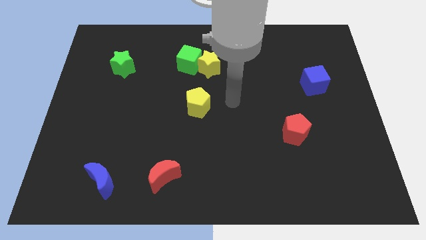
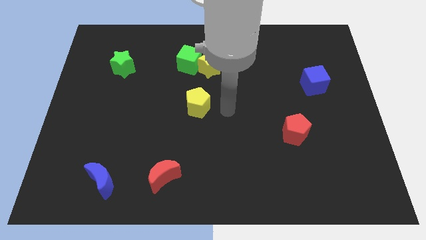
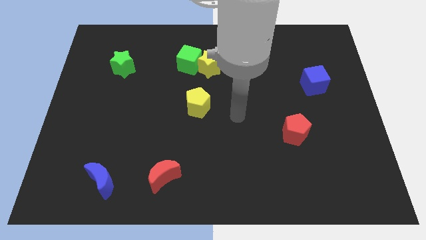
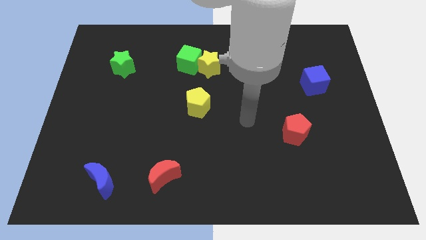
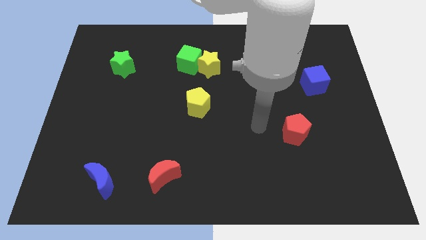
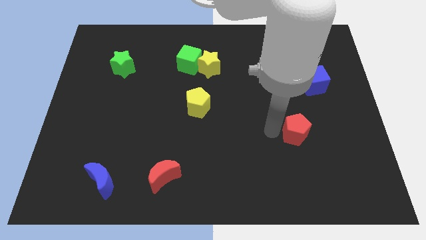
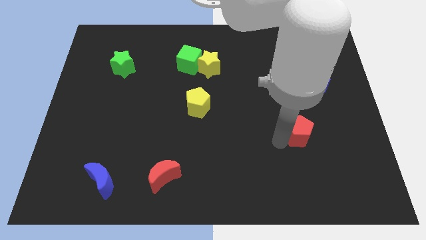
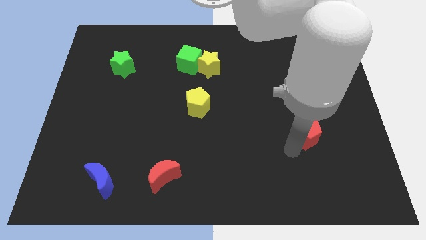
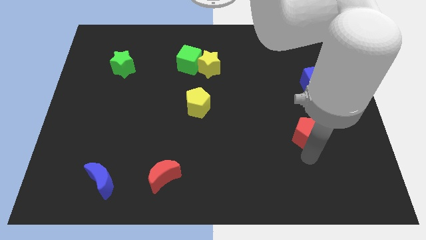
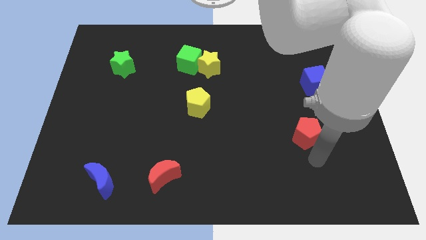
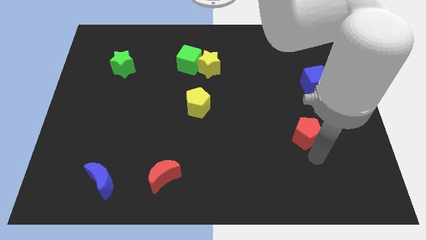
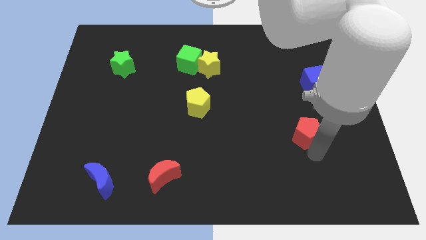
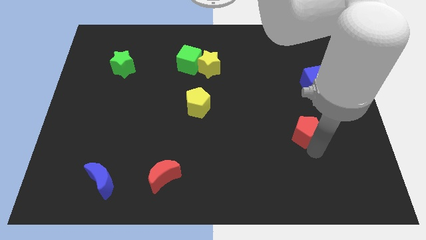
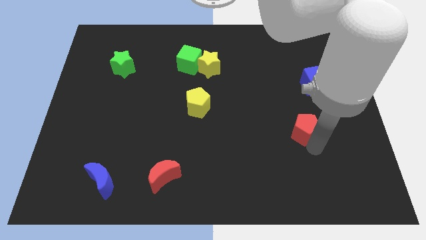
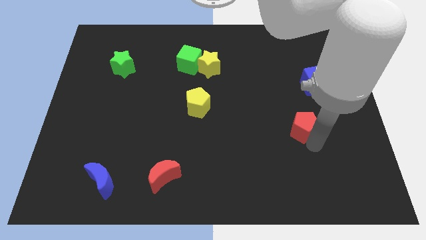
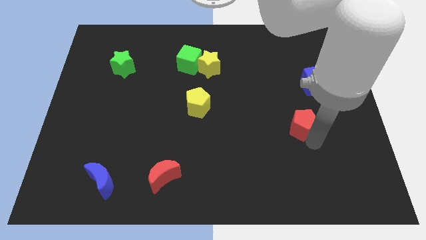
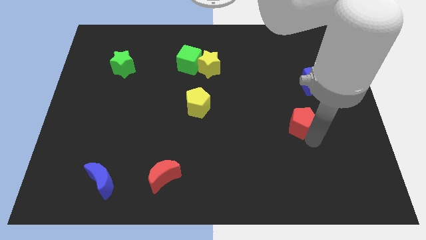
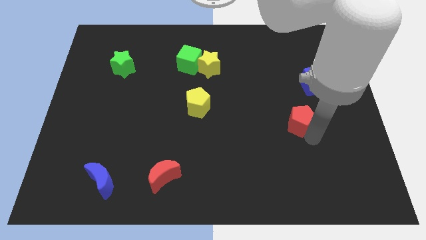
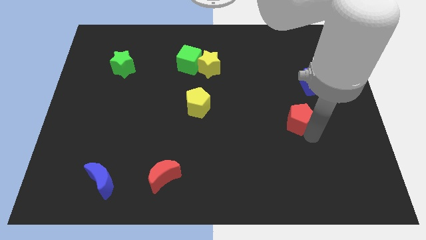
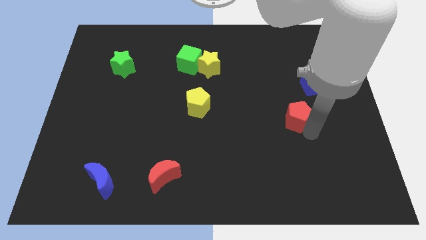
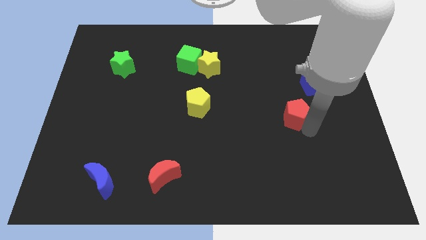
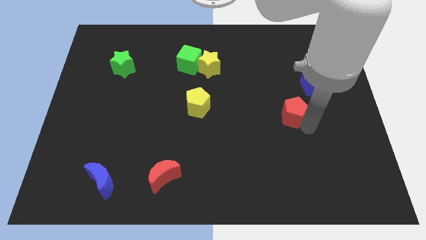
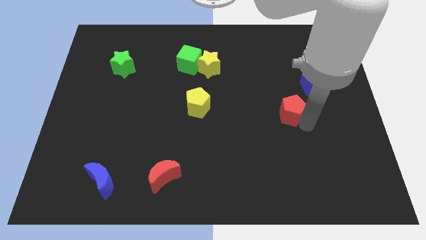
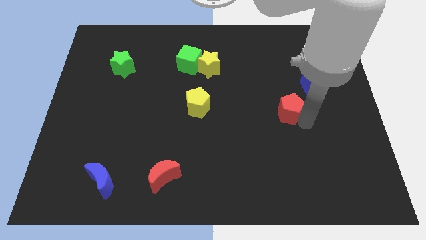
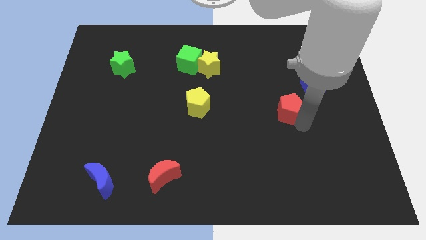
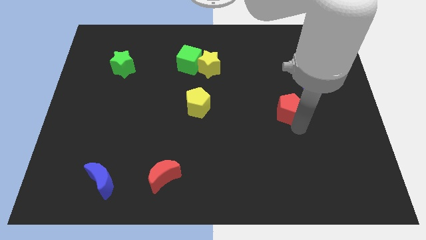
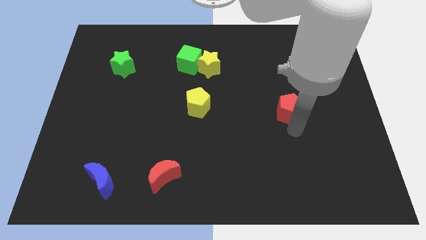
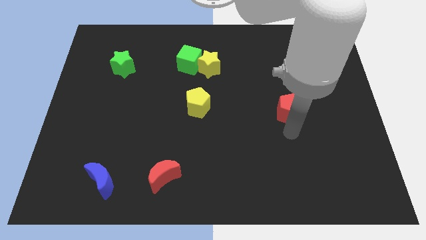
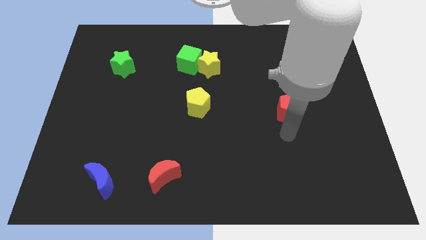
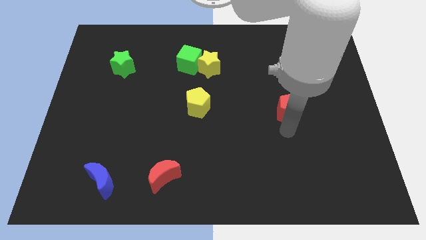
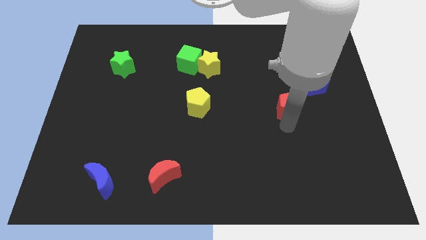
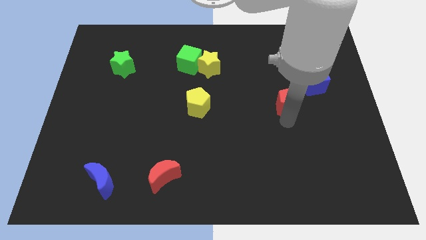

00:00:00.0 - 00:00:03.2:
push the red pentagon a little bit up

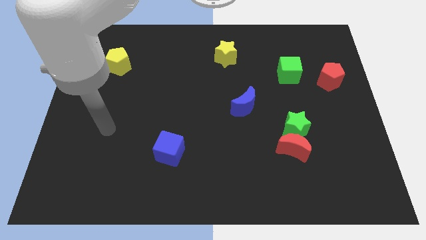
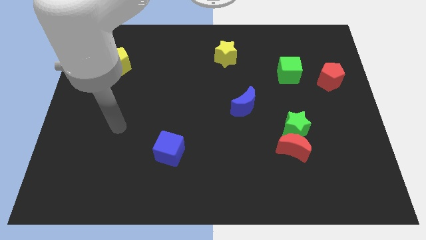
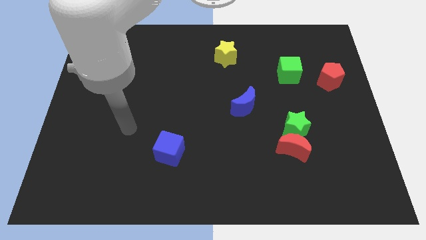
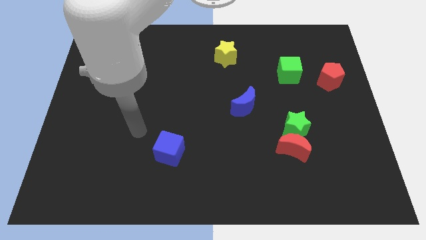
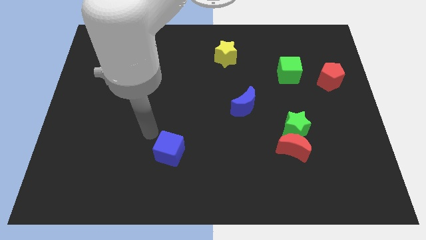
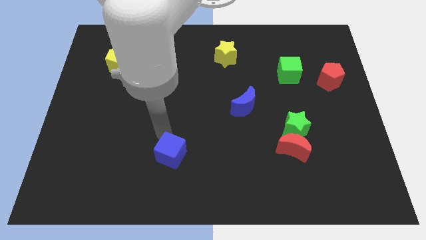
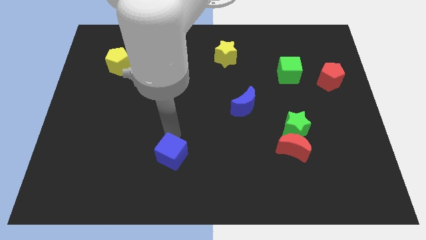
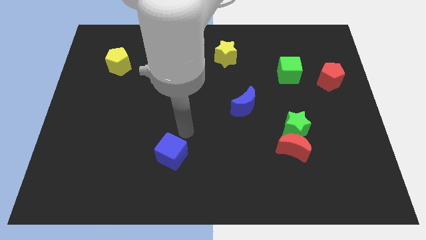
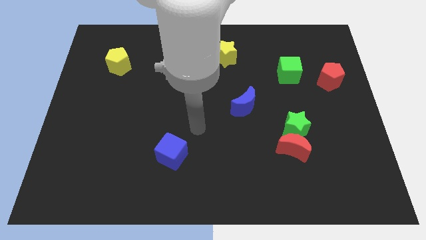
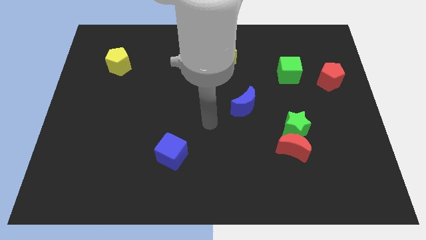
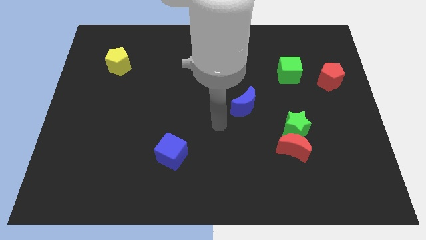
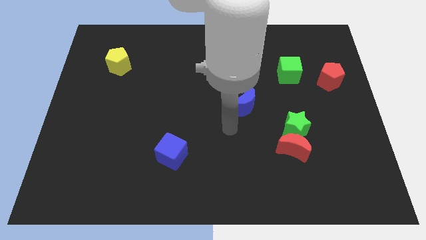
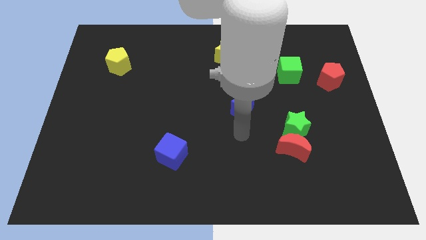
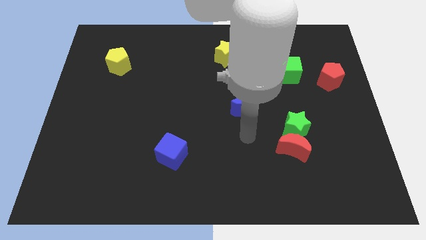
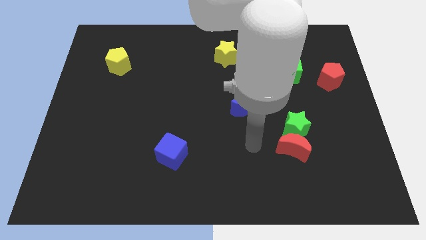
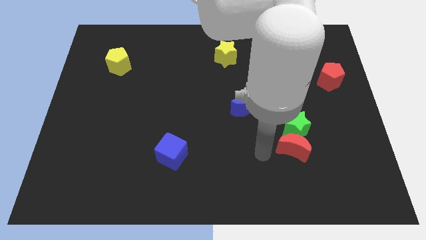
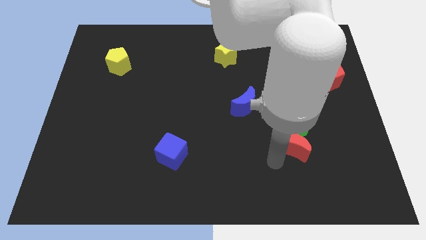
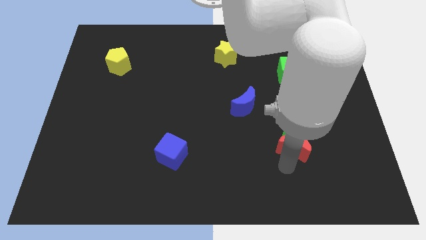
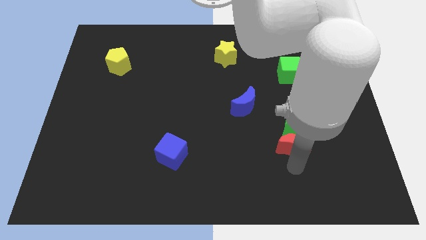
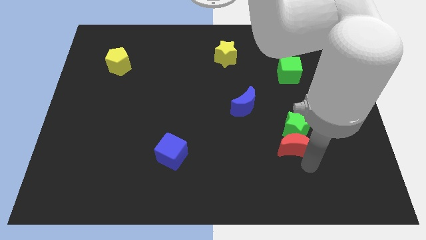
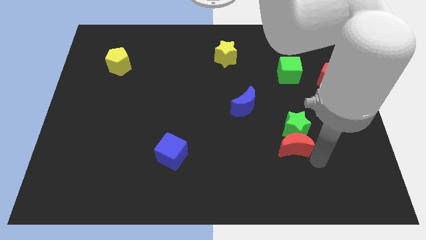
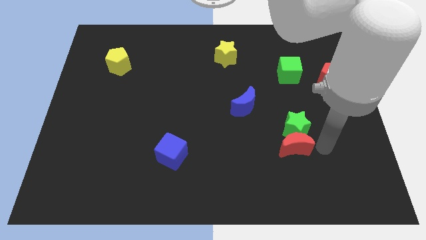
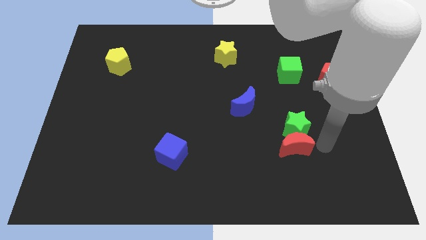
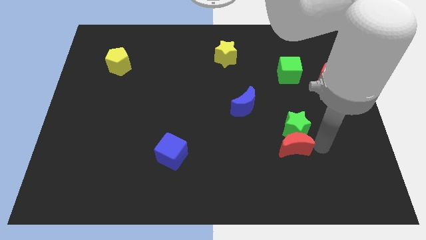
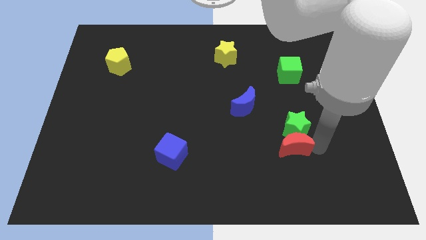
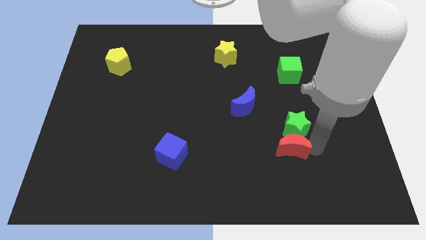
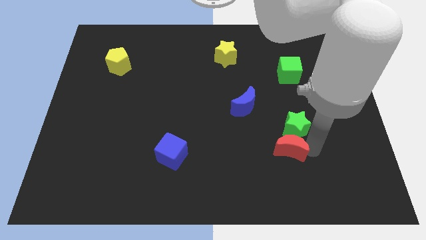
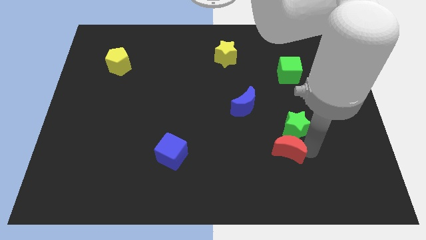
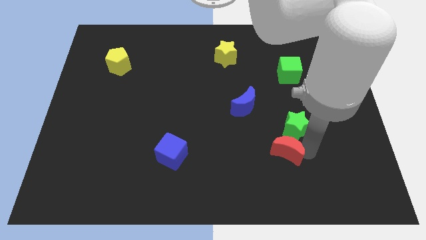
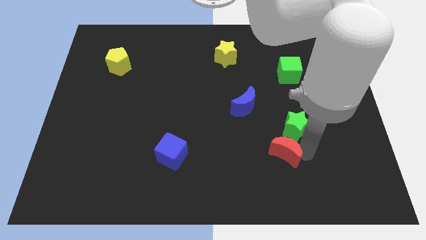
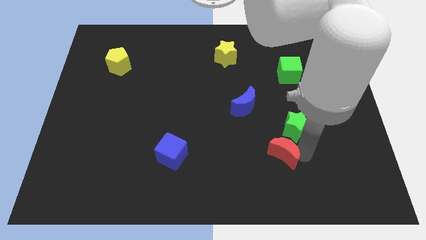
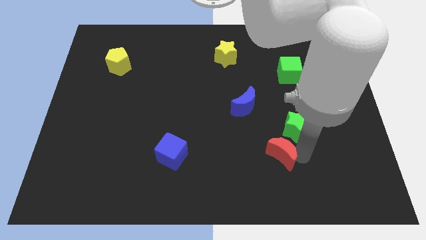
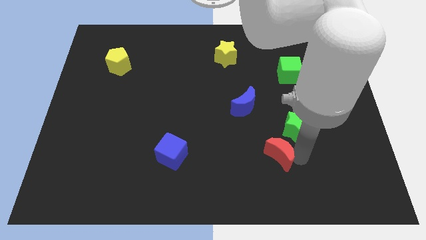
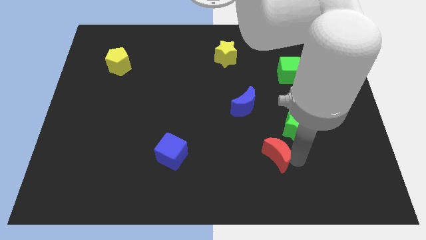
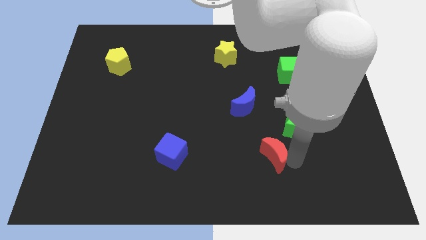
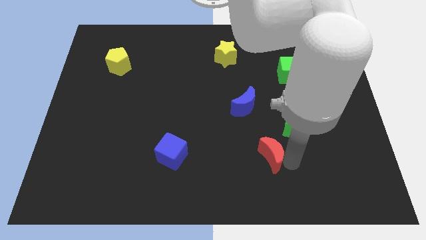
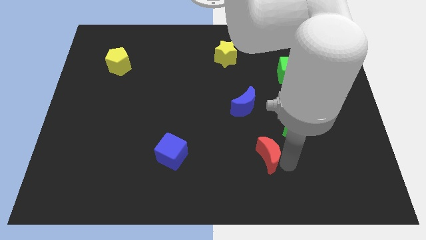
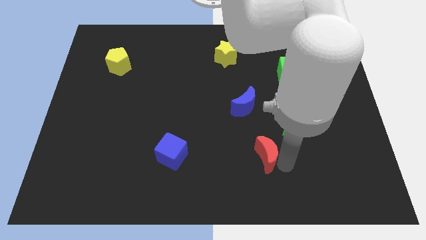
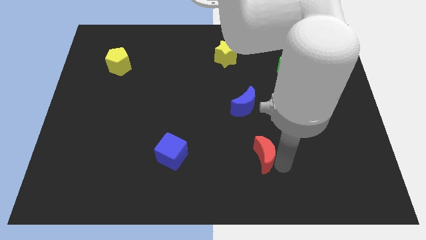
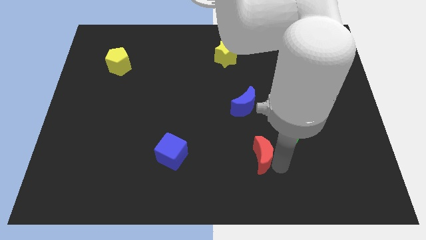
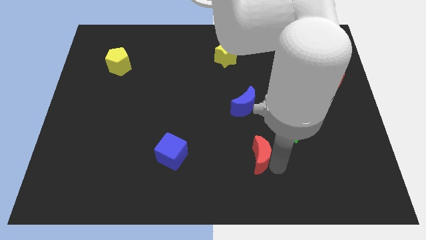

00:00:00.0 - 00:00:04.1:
slightly move the red moon to the left

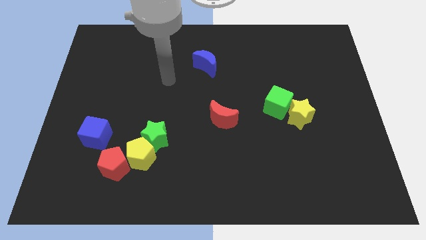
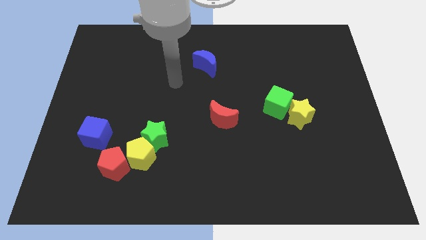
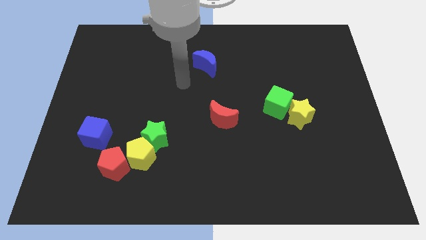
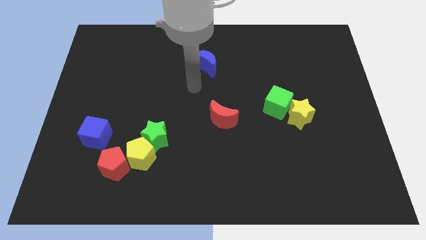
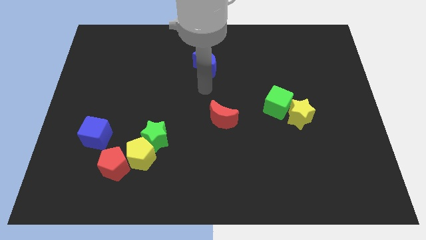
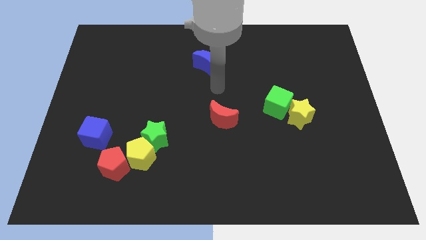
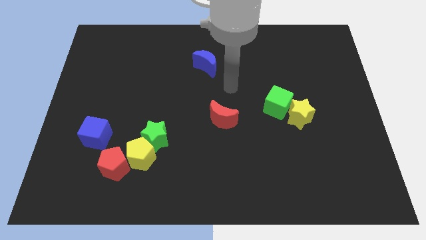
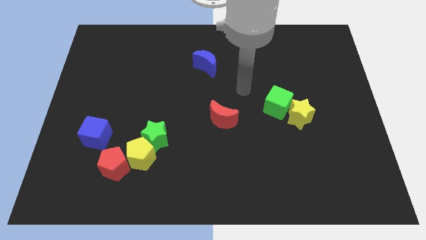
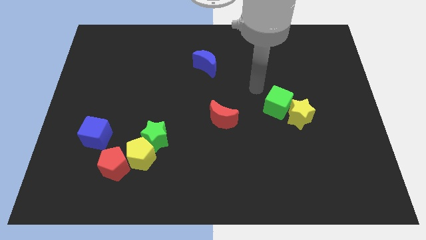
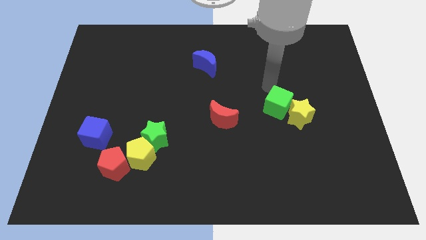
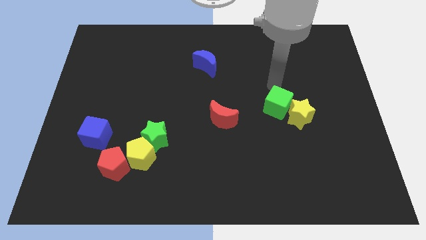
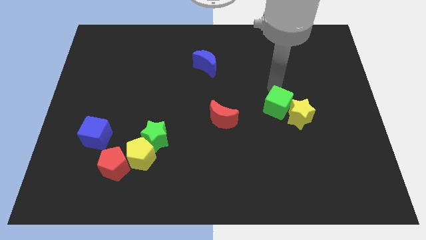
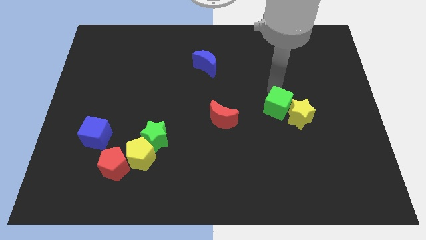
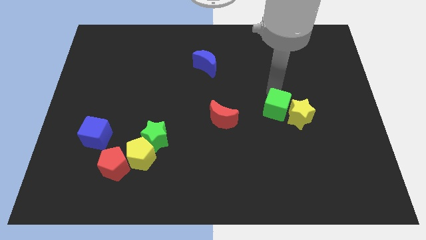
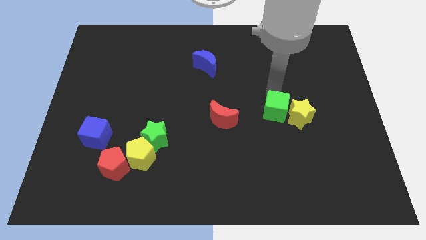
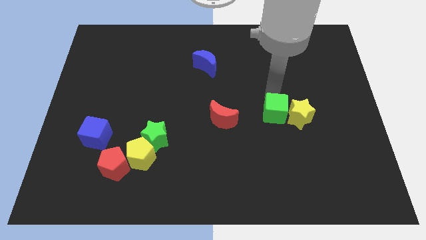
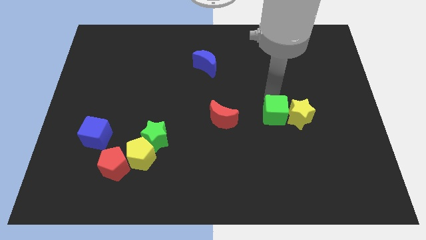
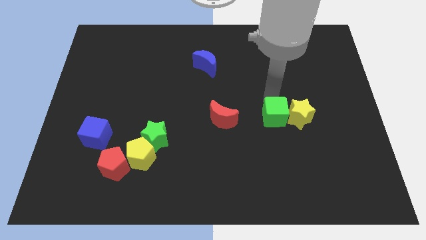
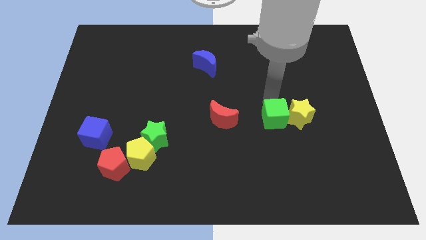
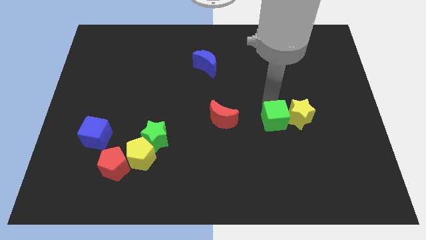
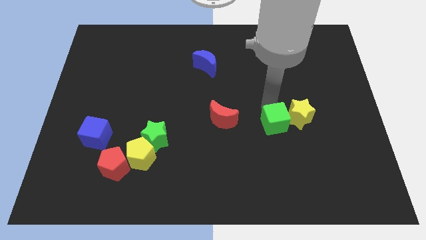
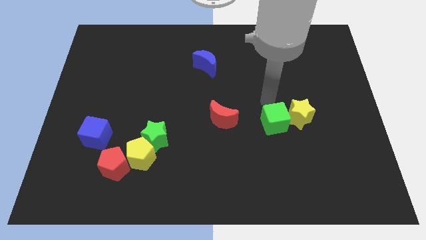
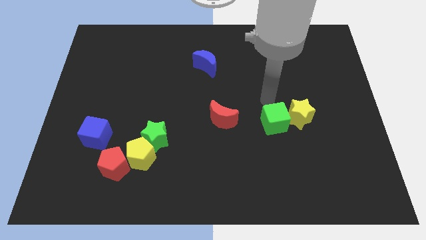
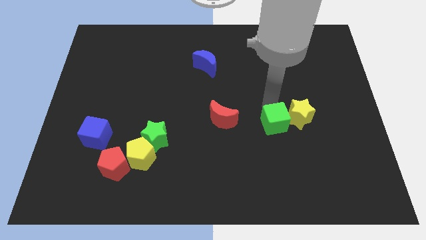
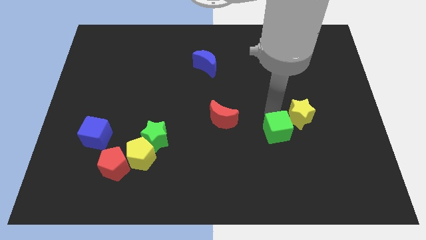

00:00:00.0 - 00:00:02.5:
slightly move the green cube downwards
